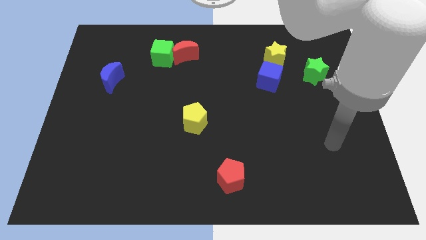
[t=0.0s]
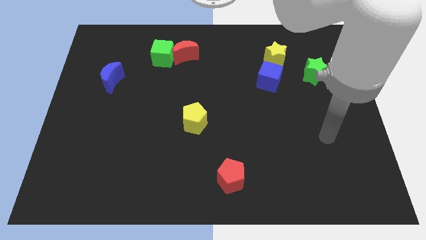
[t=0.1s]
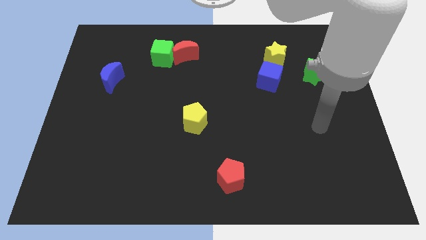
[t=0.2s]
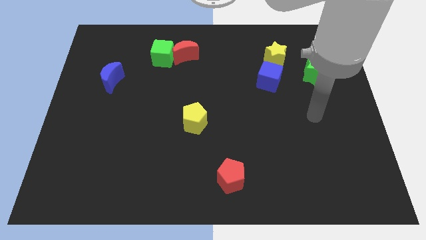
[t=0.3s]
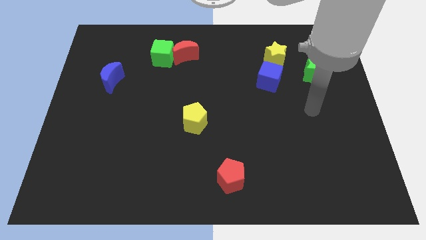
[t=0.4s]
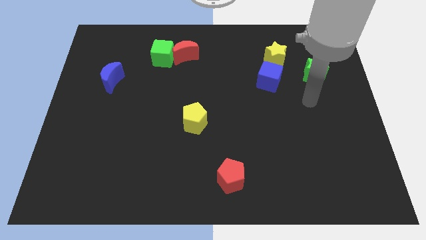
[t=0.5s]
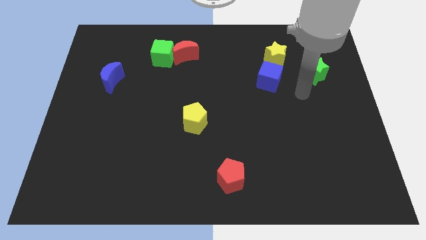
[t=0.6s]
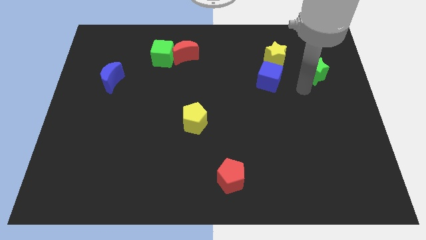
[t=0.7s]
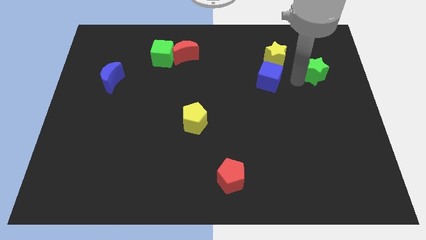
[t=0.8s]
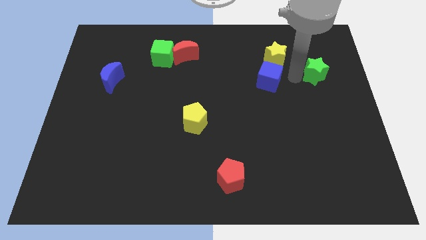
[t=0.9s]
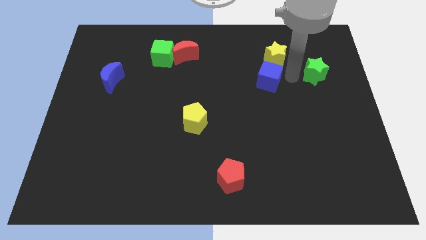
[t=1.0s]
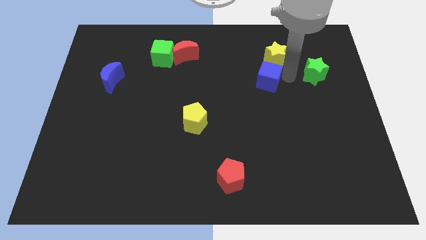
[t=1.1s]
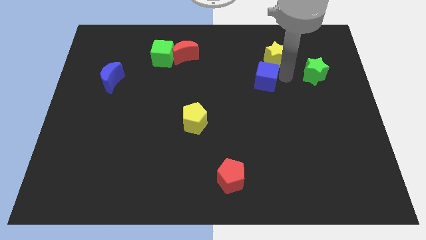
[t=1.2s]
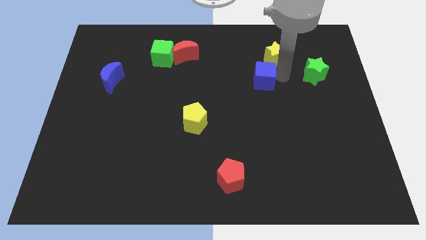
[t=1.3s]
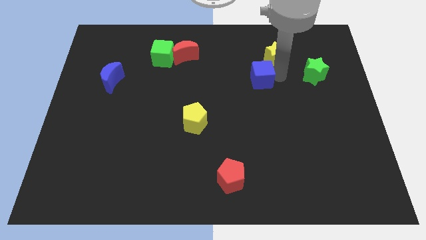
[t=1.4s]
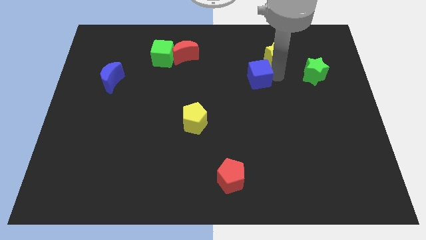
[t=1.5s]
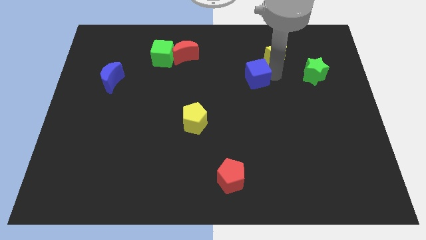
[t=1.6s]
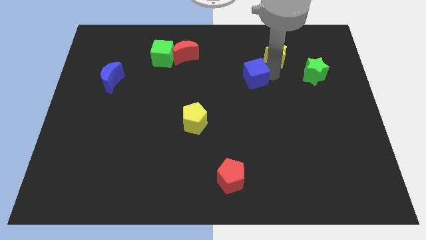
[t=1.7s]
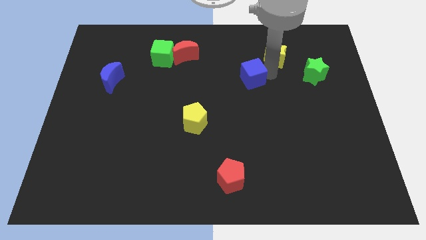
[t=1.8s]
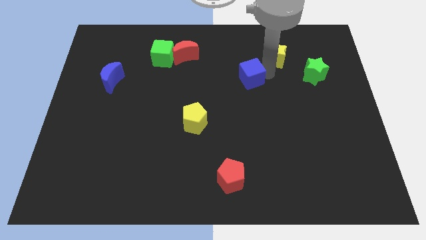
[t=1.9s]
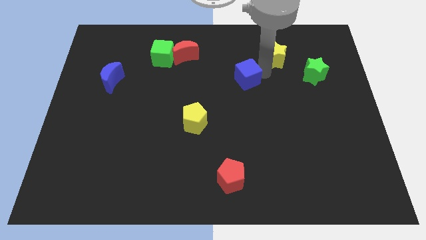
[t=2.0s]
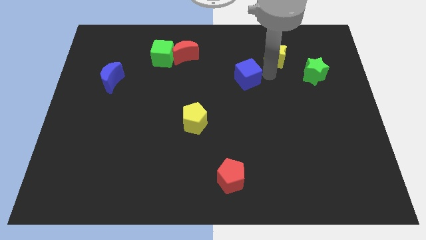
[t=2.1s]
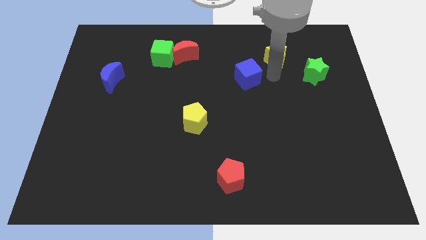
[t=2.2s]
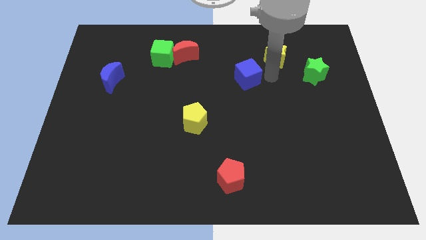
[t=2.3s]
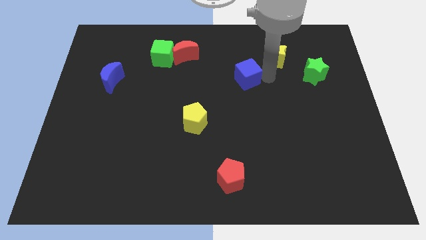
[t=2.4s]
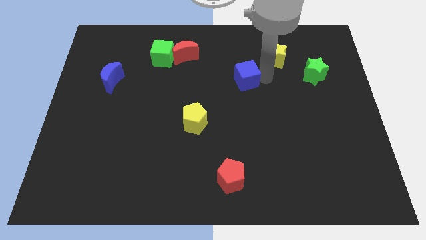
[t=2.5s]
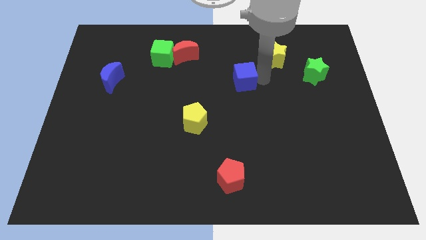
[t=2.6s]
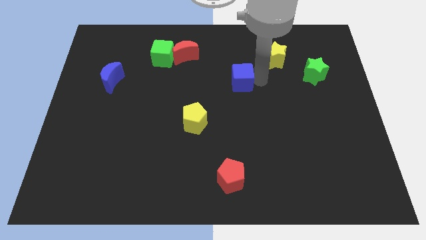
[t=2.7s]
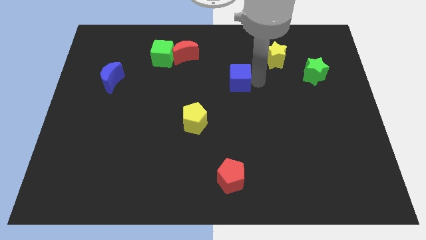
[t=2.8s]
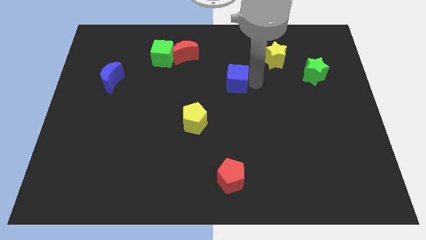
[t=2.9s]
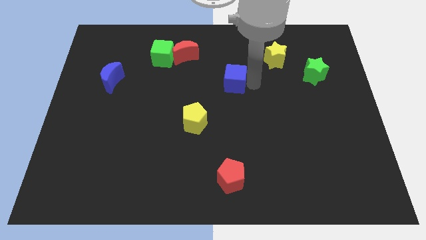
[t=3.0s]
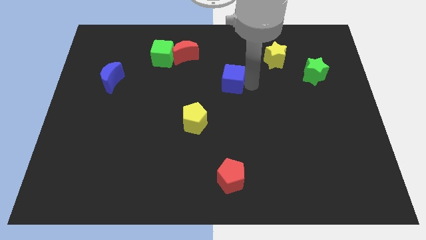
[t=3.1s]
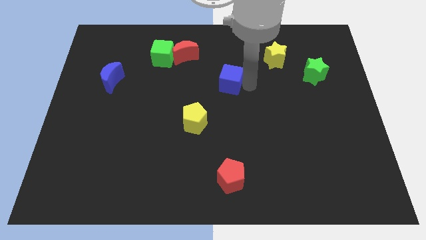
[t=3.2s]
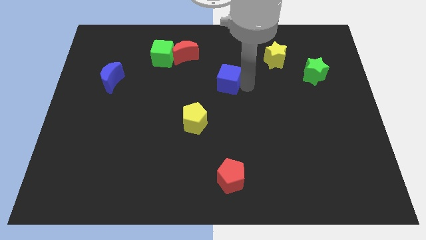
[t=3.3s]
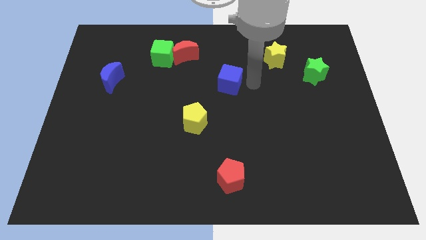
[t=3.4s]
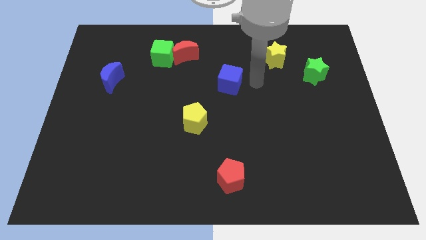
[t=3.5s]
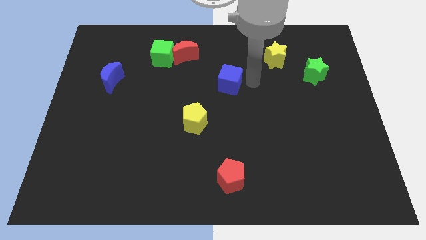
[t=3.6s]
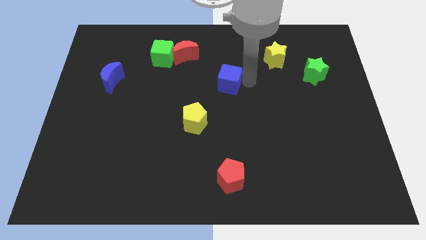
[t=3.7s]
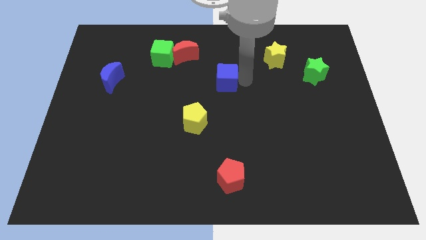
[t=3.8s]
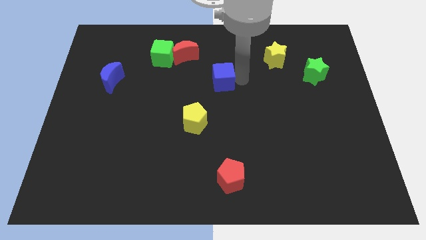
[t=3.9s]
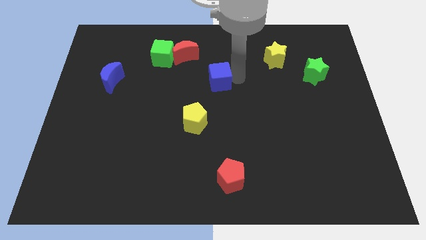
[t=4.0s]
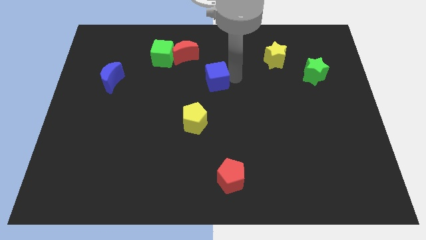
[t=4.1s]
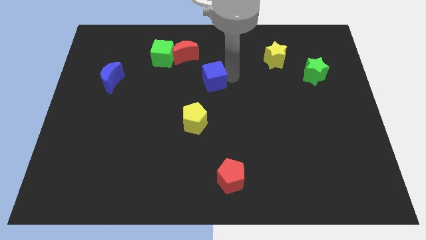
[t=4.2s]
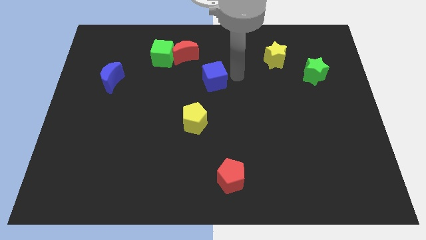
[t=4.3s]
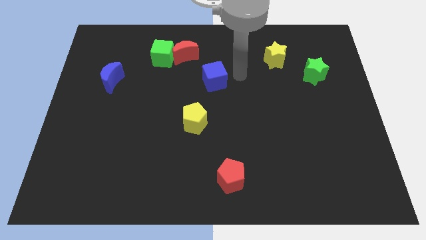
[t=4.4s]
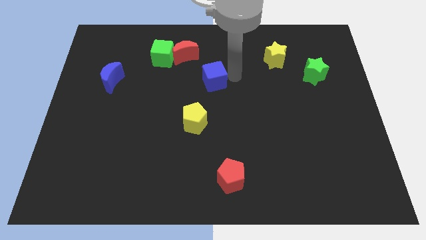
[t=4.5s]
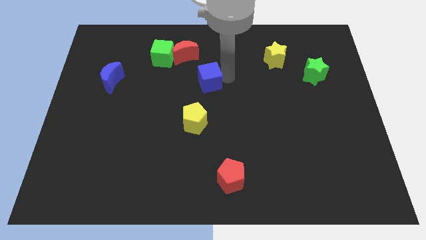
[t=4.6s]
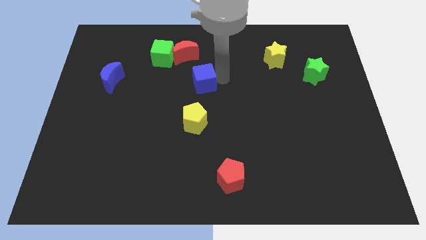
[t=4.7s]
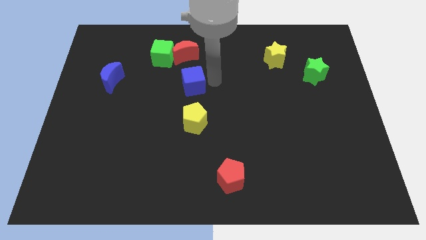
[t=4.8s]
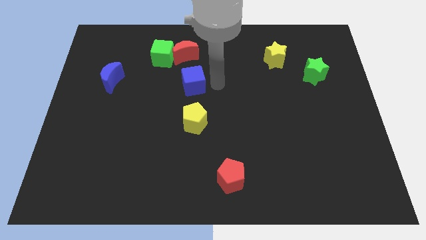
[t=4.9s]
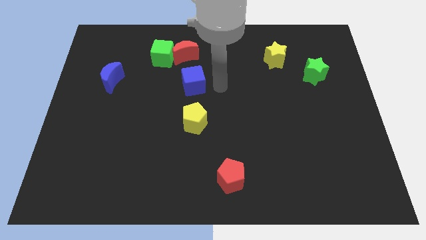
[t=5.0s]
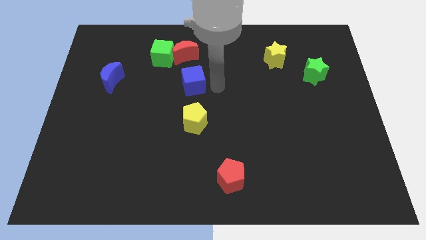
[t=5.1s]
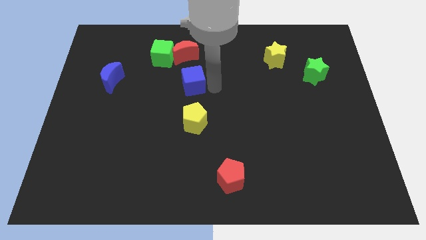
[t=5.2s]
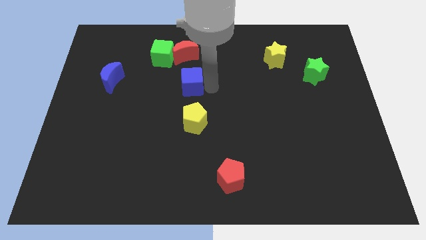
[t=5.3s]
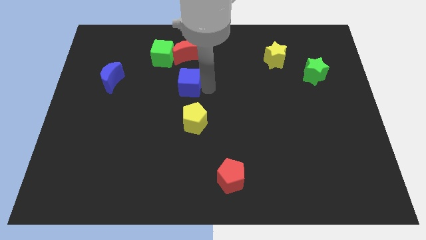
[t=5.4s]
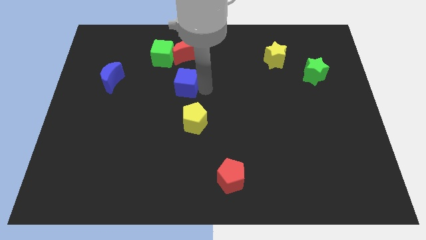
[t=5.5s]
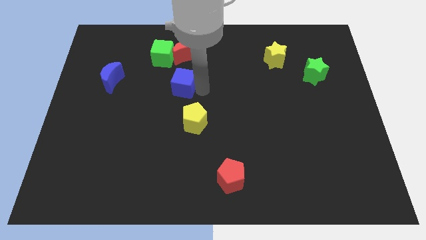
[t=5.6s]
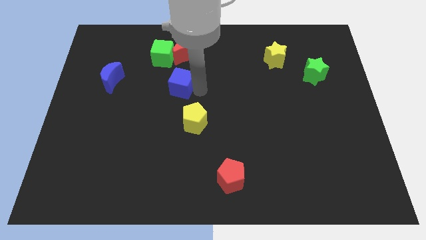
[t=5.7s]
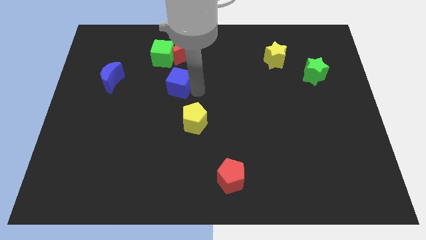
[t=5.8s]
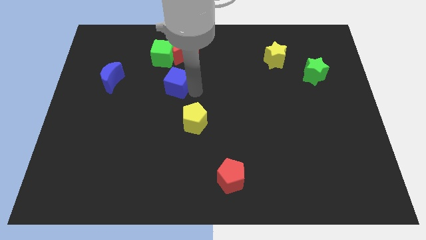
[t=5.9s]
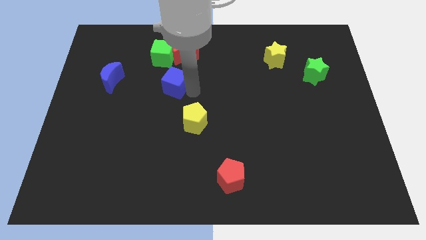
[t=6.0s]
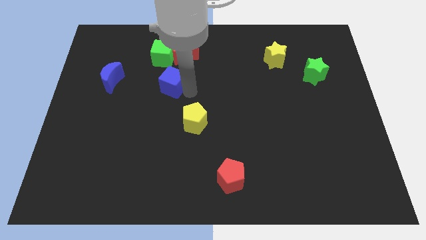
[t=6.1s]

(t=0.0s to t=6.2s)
slide the blue cube to the right of the blue moon
